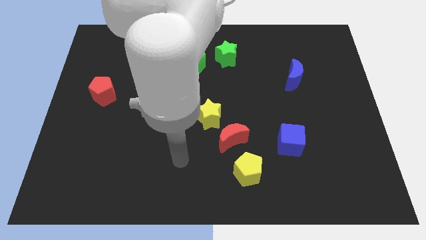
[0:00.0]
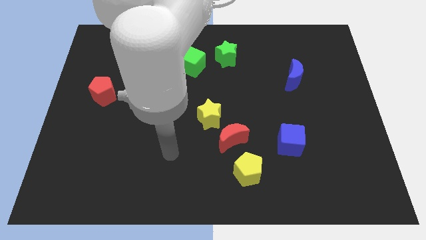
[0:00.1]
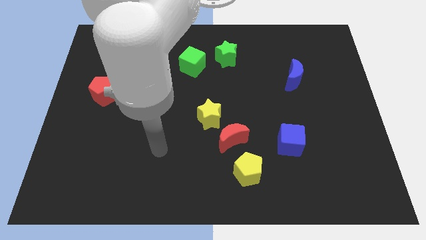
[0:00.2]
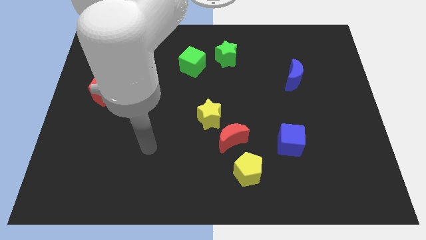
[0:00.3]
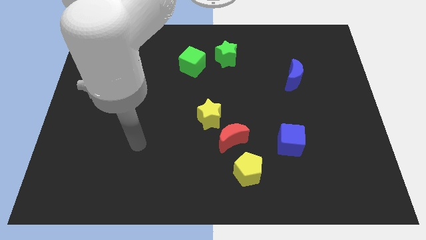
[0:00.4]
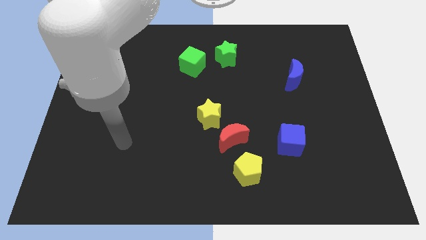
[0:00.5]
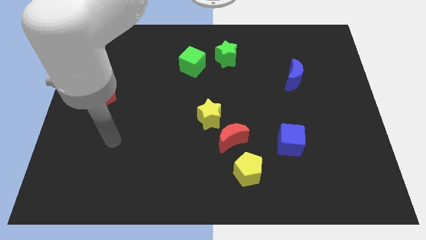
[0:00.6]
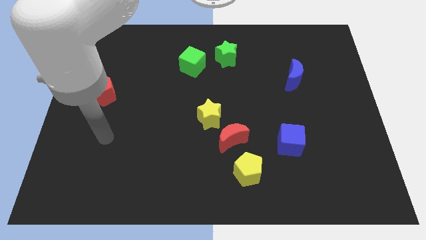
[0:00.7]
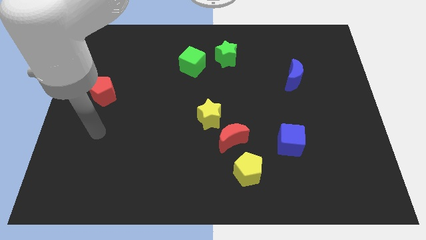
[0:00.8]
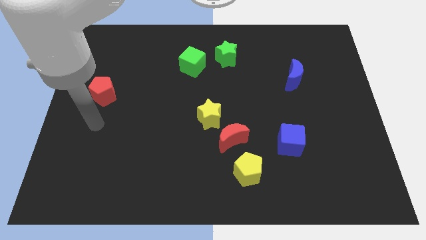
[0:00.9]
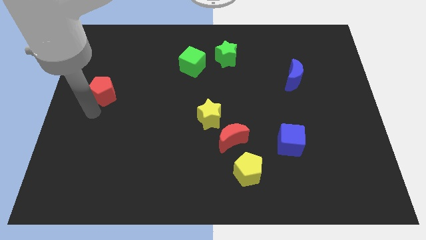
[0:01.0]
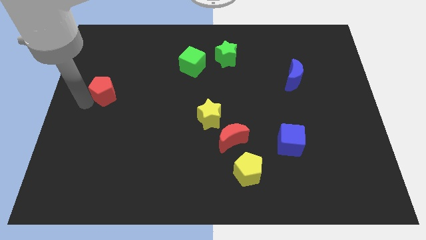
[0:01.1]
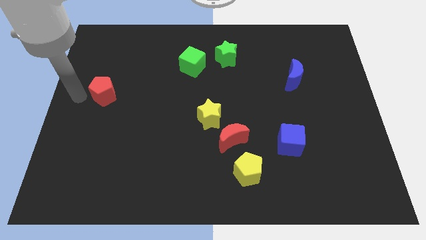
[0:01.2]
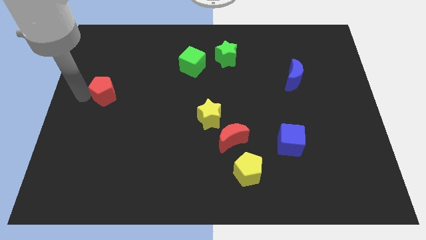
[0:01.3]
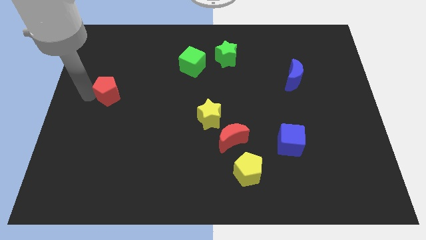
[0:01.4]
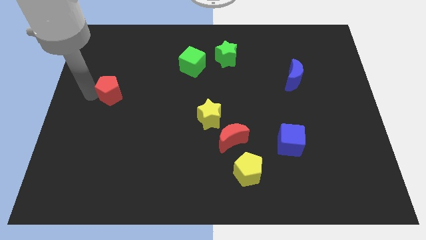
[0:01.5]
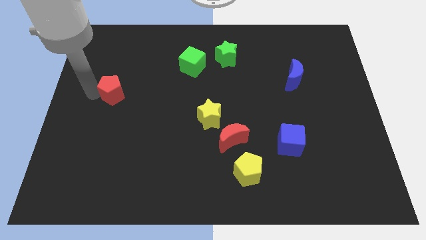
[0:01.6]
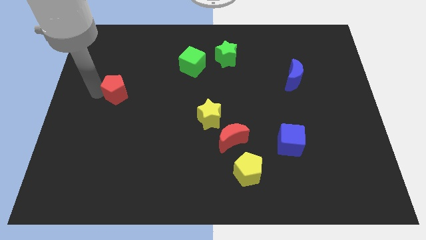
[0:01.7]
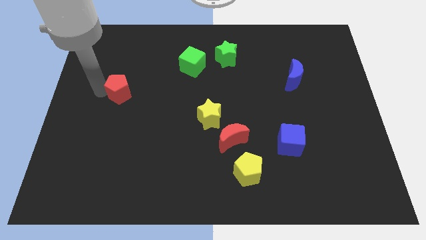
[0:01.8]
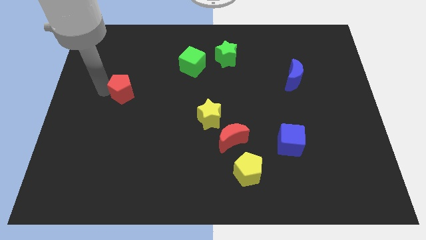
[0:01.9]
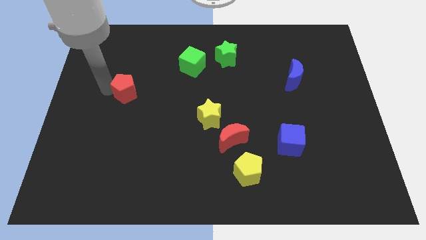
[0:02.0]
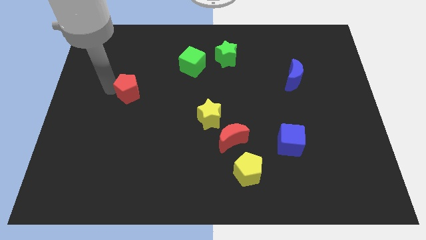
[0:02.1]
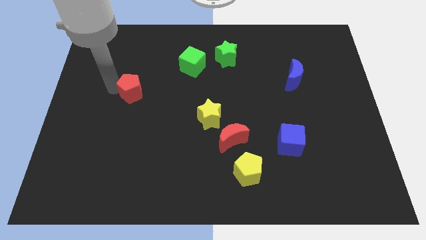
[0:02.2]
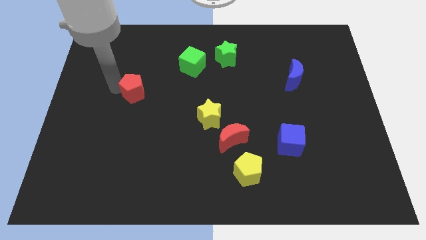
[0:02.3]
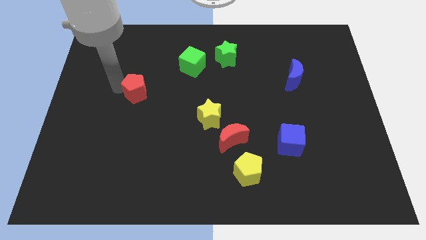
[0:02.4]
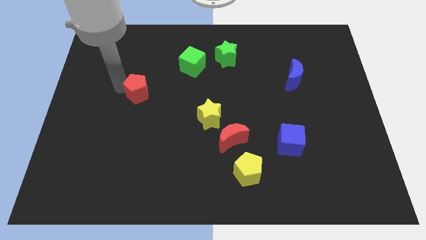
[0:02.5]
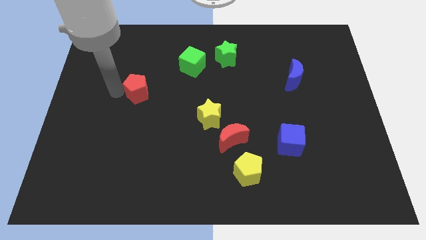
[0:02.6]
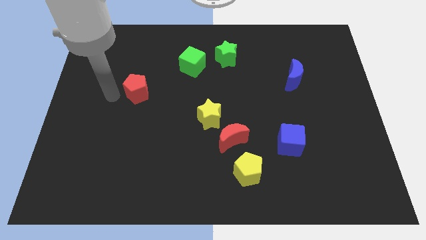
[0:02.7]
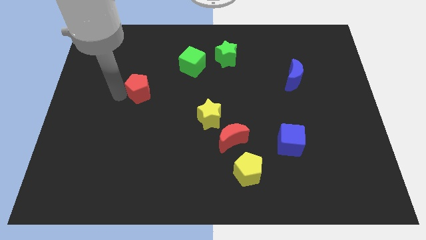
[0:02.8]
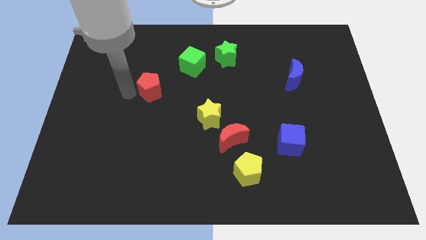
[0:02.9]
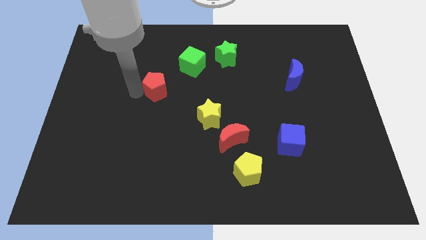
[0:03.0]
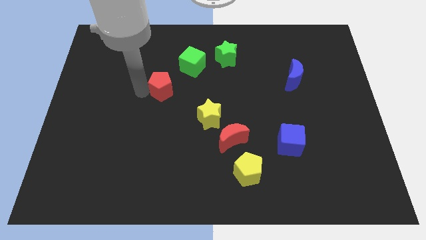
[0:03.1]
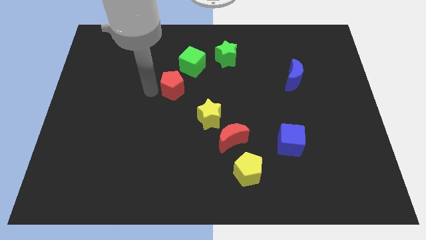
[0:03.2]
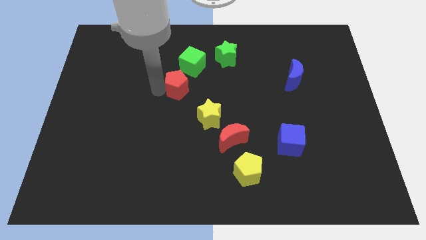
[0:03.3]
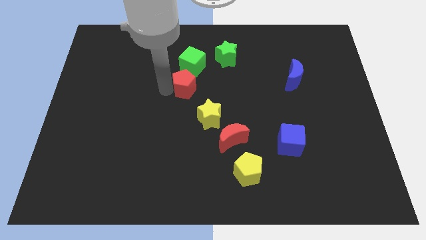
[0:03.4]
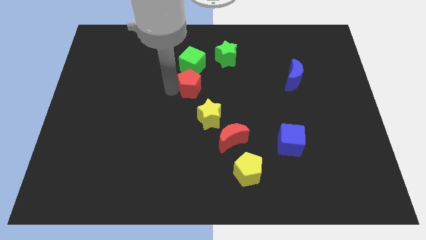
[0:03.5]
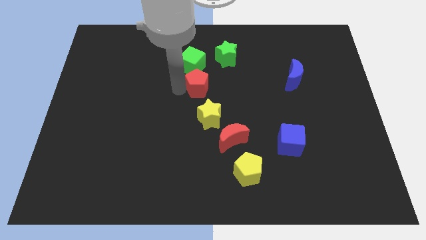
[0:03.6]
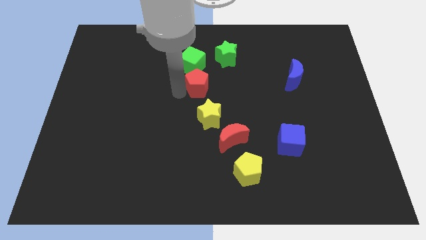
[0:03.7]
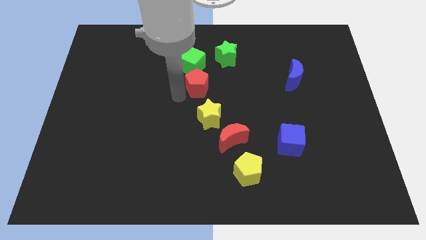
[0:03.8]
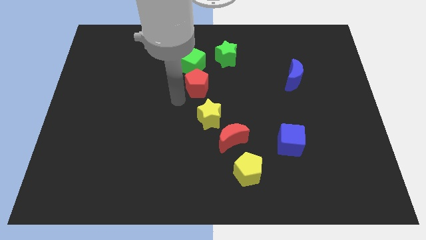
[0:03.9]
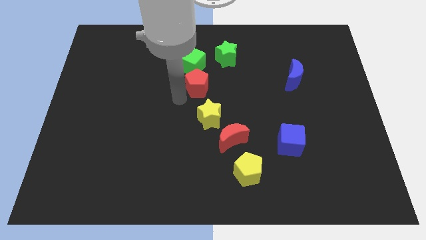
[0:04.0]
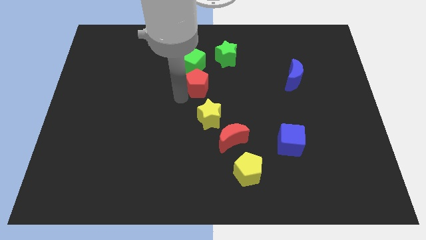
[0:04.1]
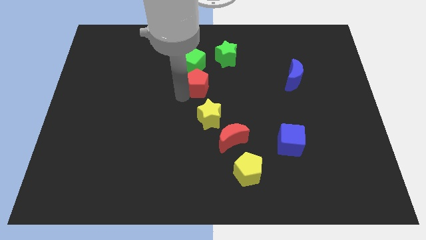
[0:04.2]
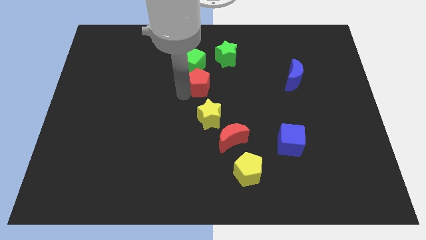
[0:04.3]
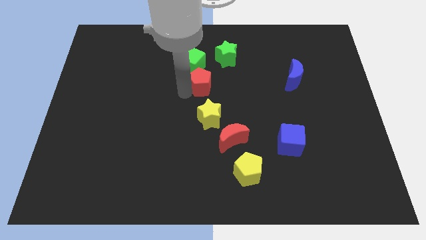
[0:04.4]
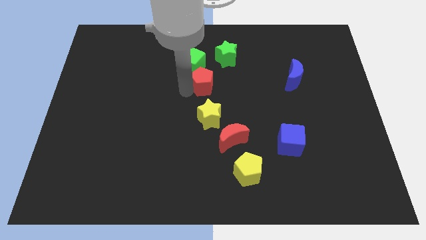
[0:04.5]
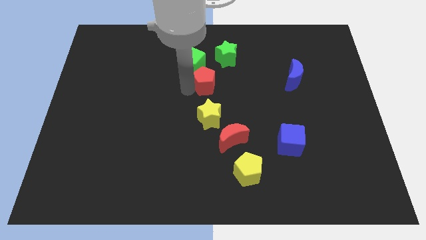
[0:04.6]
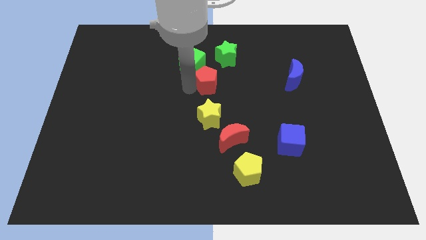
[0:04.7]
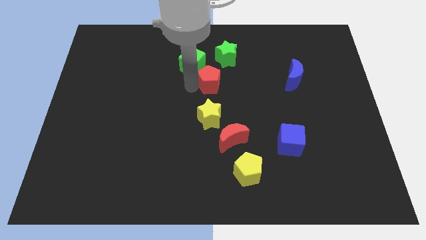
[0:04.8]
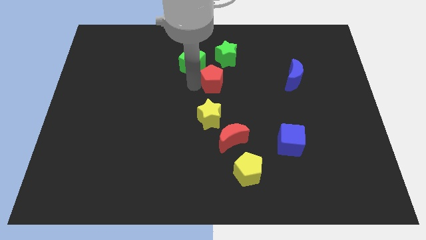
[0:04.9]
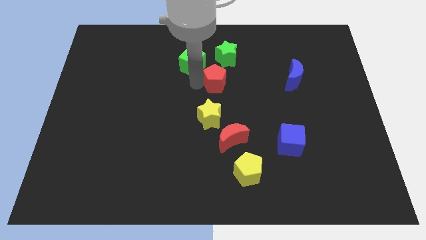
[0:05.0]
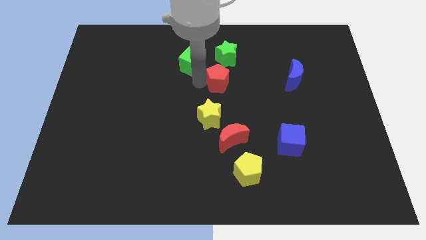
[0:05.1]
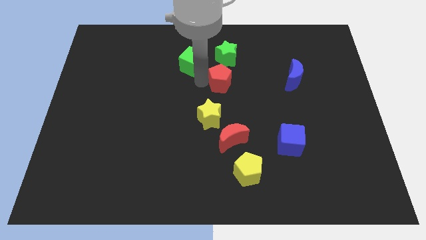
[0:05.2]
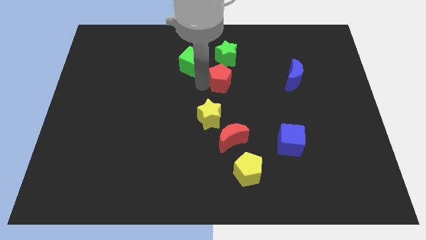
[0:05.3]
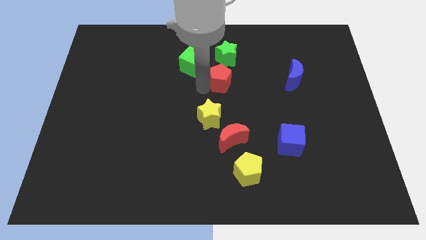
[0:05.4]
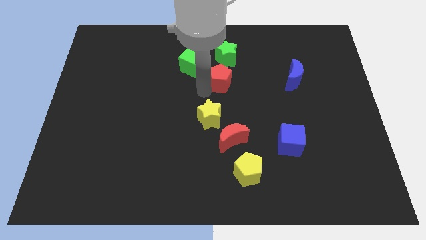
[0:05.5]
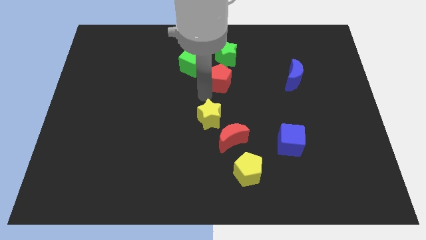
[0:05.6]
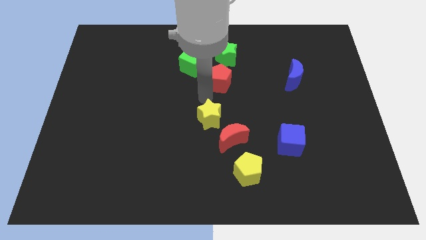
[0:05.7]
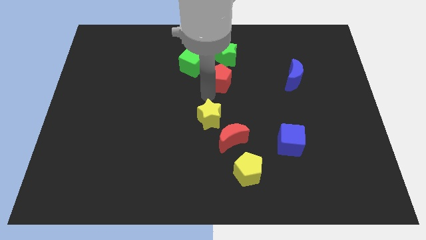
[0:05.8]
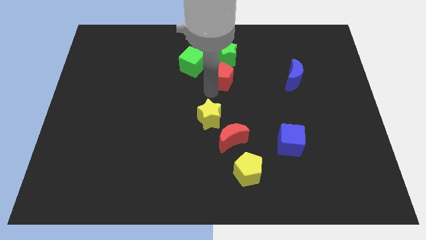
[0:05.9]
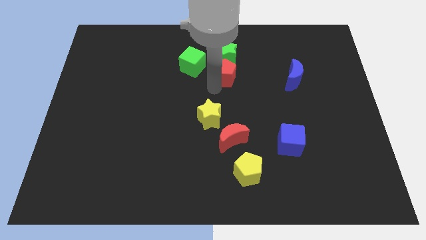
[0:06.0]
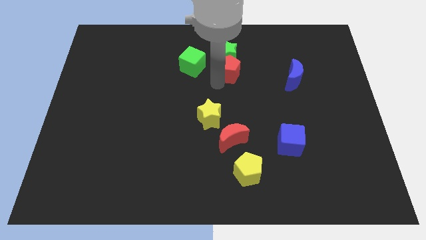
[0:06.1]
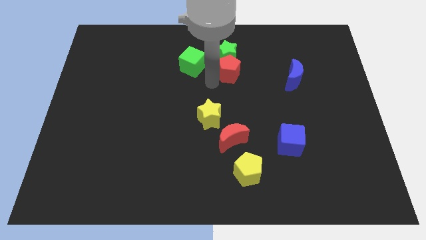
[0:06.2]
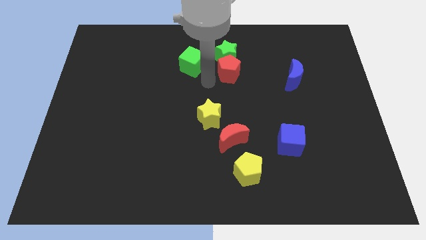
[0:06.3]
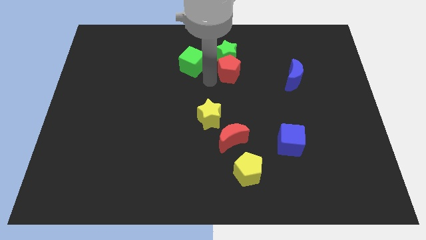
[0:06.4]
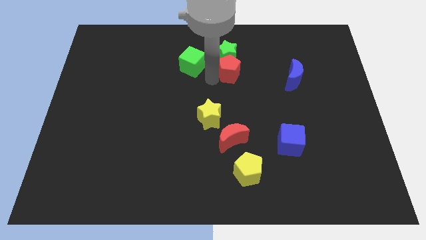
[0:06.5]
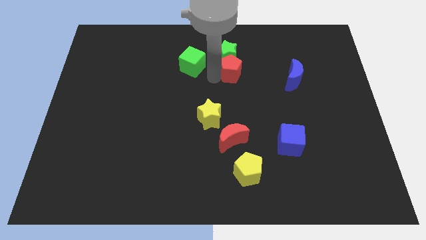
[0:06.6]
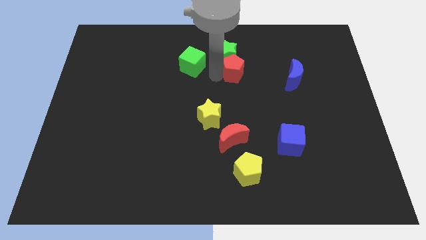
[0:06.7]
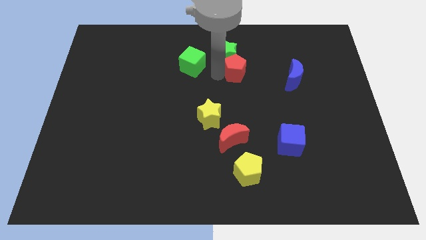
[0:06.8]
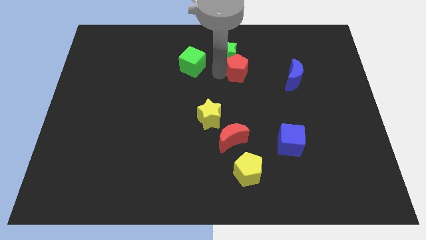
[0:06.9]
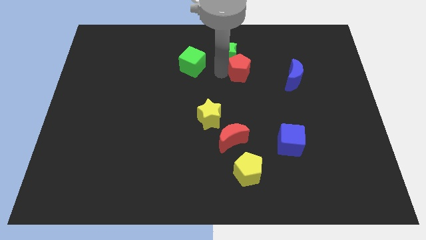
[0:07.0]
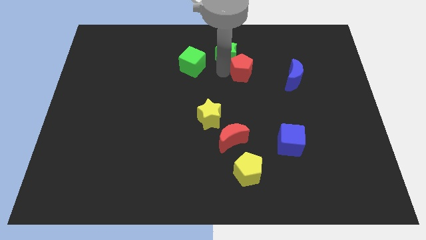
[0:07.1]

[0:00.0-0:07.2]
slide the red pentagon to the right of the green star
